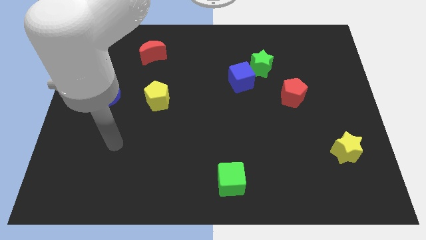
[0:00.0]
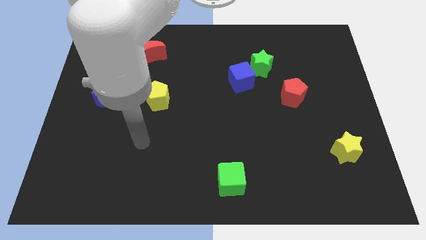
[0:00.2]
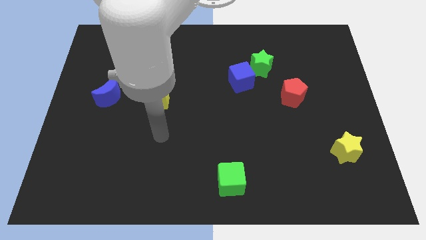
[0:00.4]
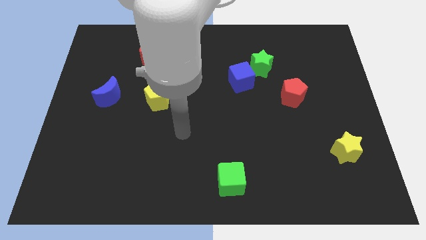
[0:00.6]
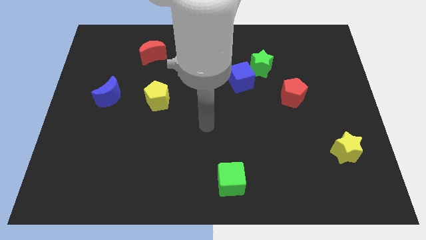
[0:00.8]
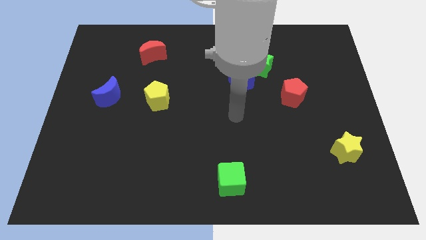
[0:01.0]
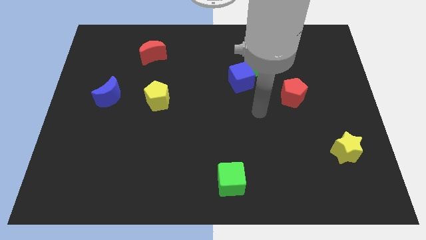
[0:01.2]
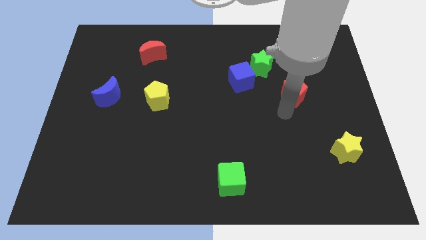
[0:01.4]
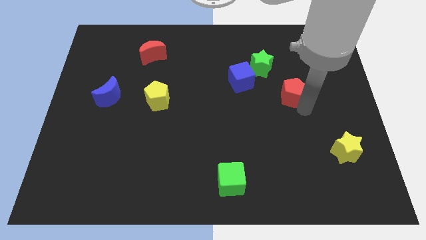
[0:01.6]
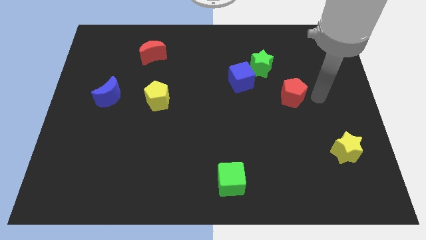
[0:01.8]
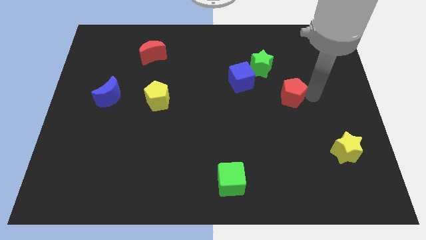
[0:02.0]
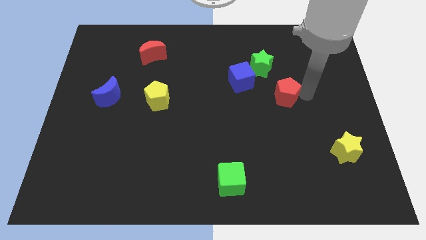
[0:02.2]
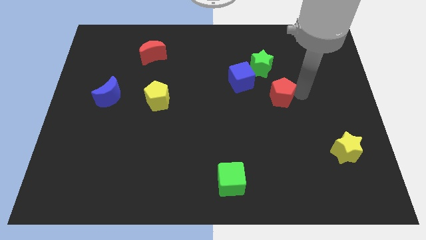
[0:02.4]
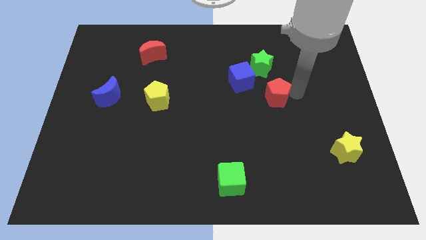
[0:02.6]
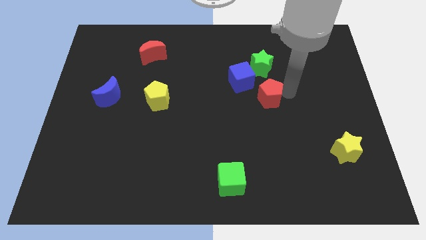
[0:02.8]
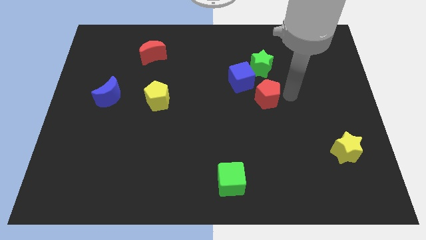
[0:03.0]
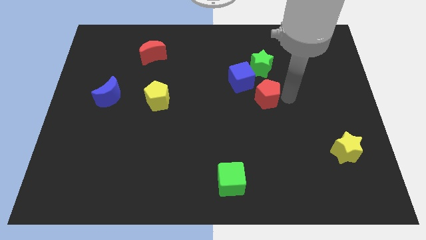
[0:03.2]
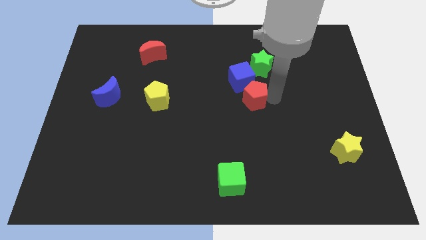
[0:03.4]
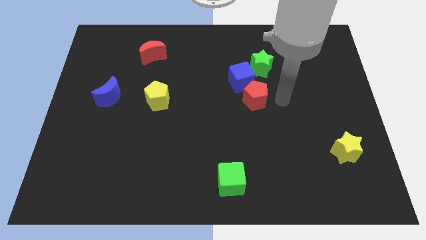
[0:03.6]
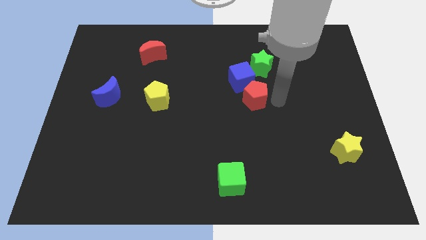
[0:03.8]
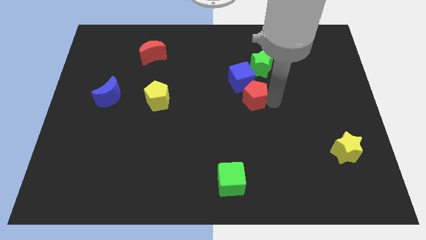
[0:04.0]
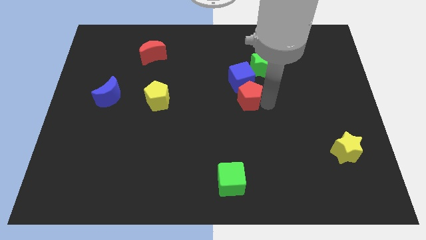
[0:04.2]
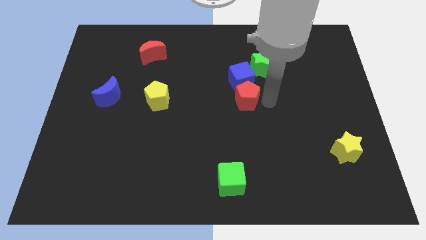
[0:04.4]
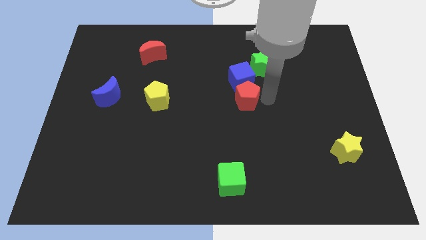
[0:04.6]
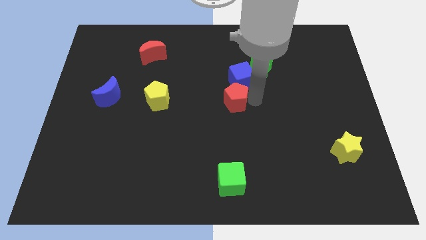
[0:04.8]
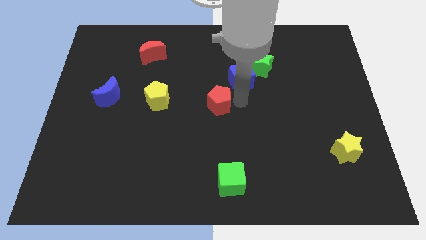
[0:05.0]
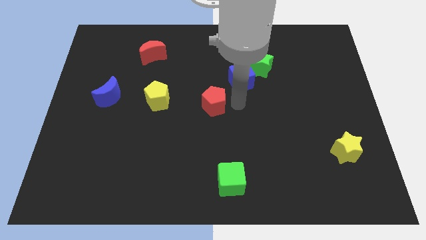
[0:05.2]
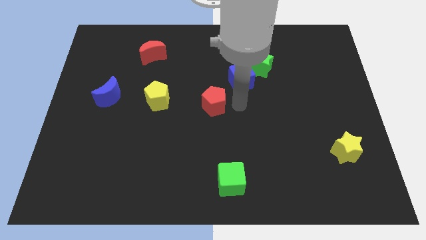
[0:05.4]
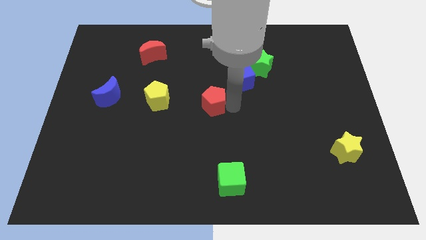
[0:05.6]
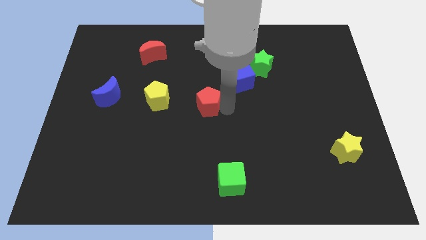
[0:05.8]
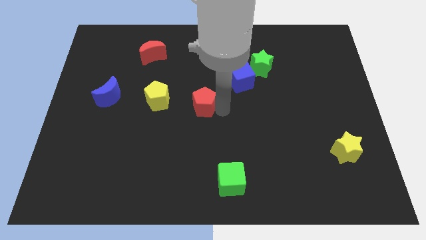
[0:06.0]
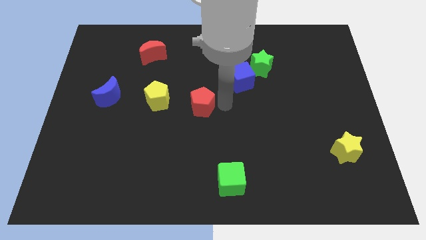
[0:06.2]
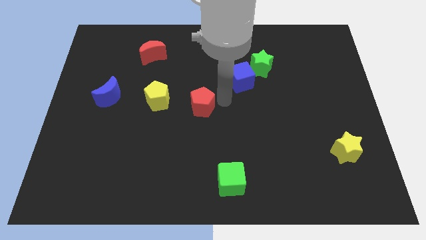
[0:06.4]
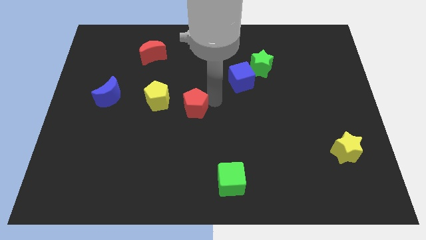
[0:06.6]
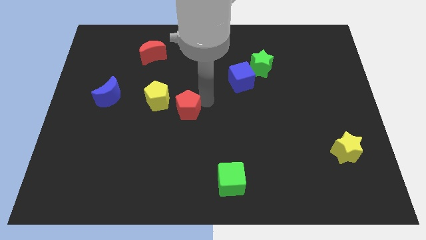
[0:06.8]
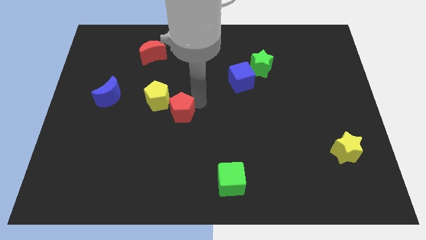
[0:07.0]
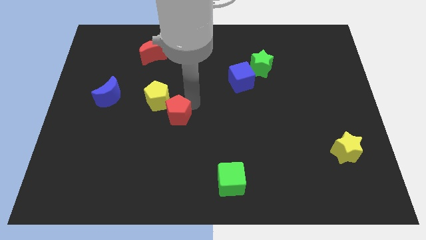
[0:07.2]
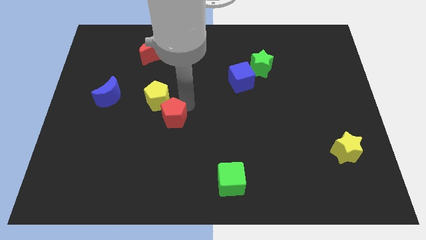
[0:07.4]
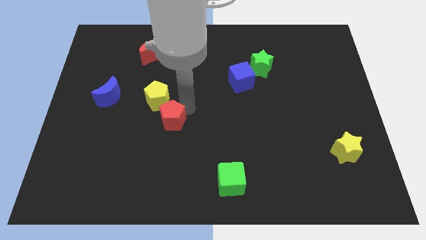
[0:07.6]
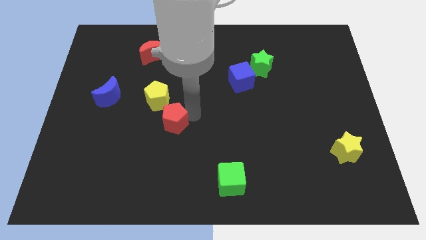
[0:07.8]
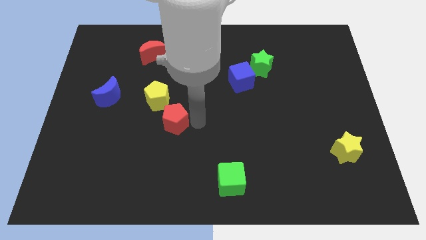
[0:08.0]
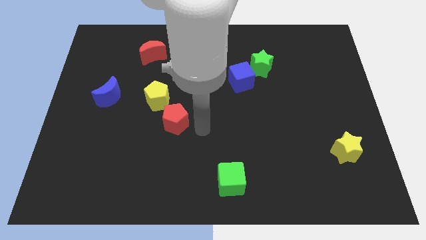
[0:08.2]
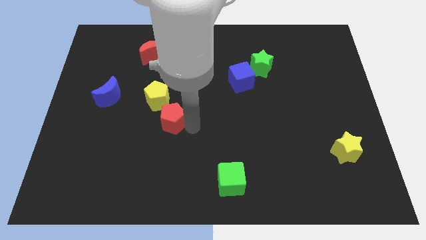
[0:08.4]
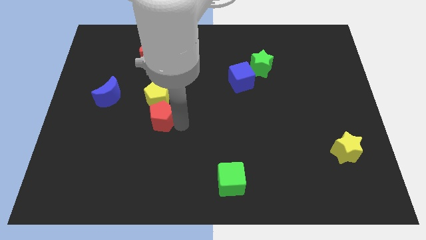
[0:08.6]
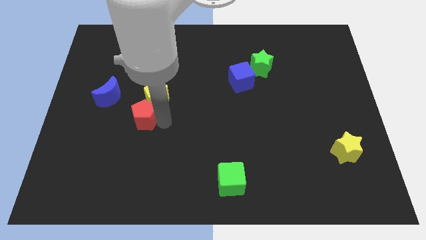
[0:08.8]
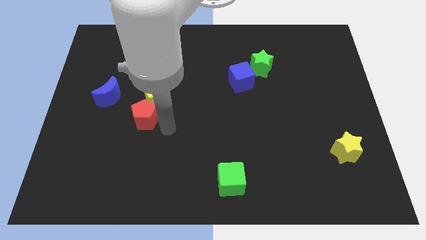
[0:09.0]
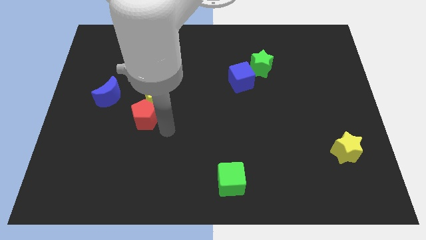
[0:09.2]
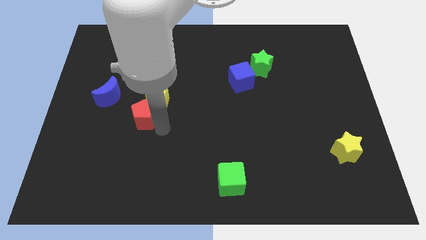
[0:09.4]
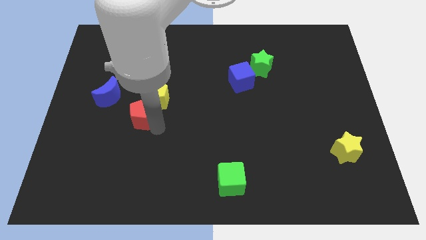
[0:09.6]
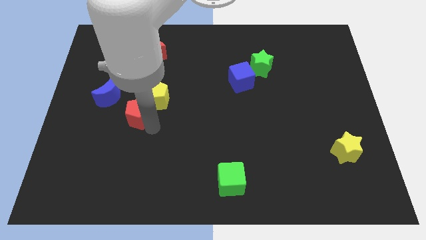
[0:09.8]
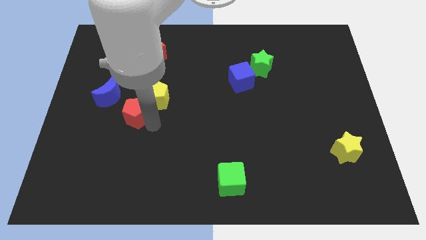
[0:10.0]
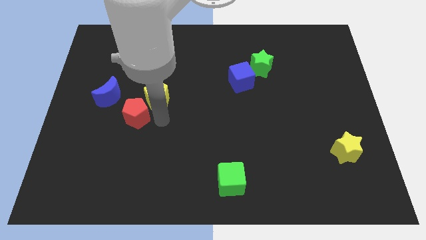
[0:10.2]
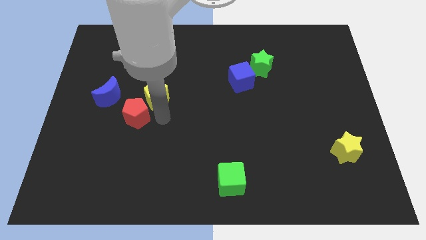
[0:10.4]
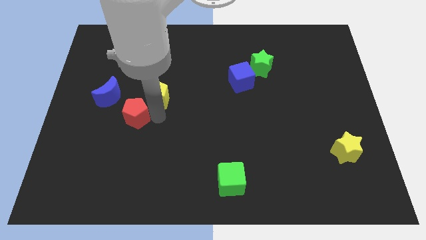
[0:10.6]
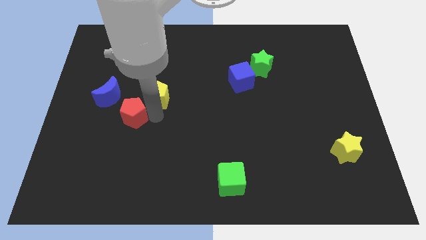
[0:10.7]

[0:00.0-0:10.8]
slide the red pentagon left of the yellow pentagon

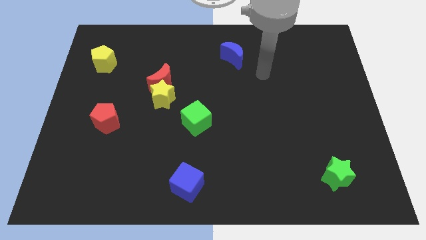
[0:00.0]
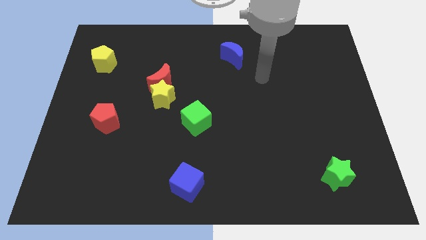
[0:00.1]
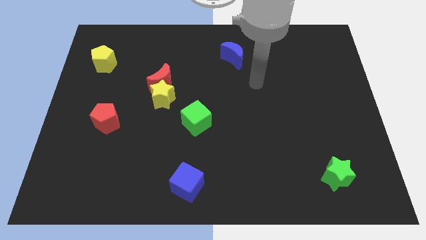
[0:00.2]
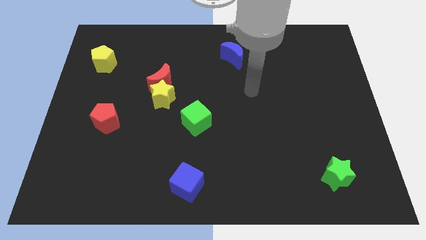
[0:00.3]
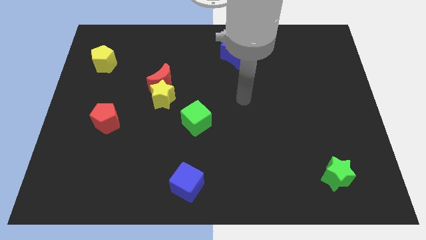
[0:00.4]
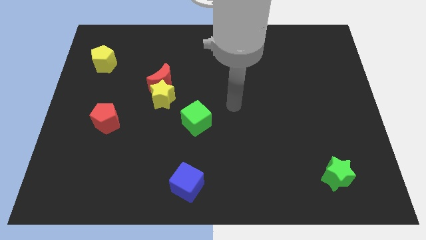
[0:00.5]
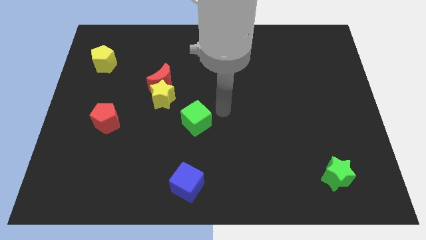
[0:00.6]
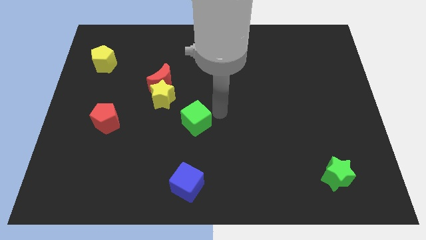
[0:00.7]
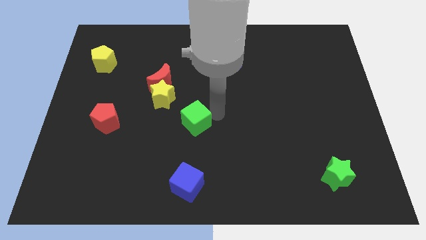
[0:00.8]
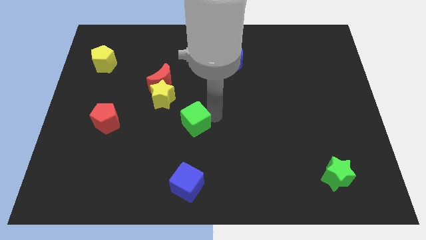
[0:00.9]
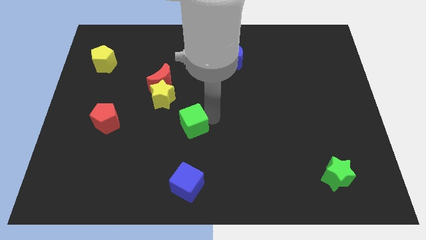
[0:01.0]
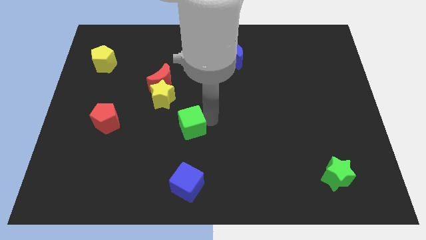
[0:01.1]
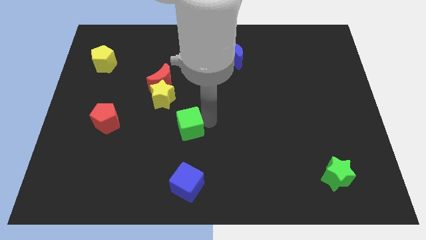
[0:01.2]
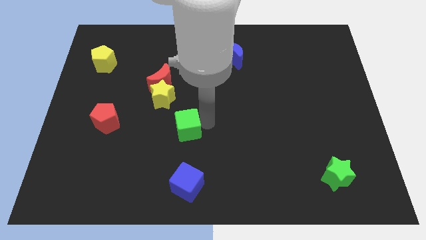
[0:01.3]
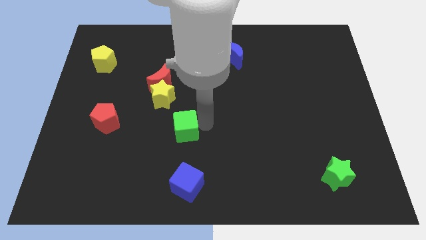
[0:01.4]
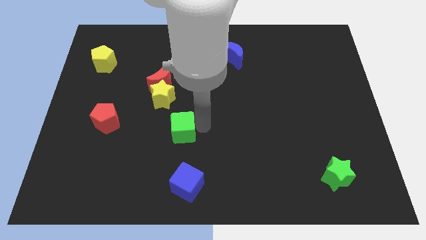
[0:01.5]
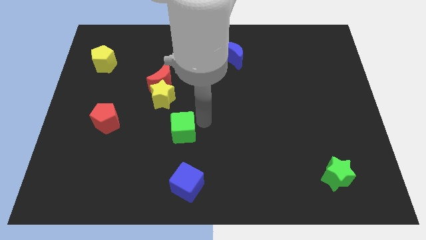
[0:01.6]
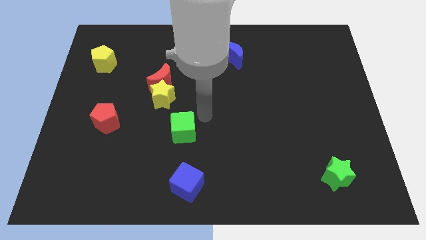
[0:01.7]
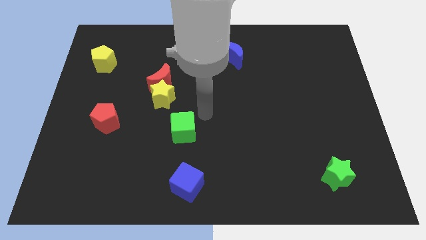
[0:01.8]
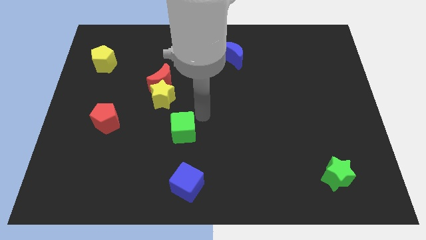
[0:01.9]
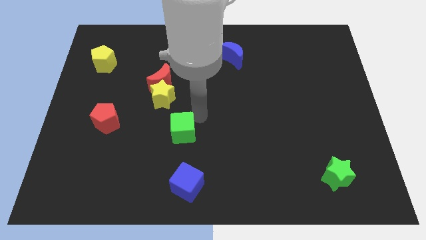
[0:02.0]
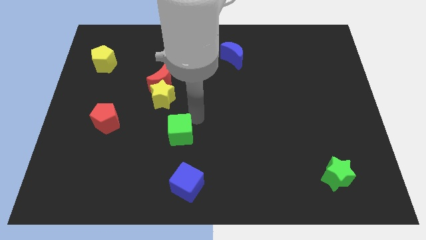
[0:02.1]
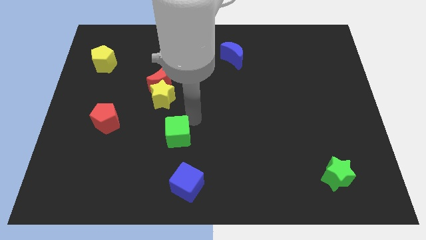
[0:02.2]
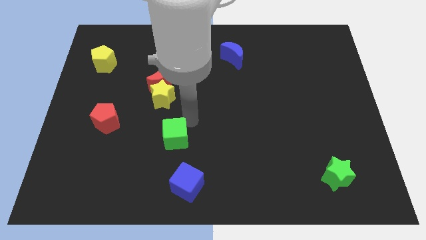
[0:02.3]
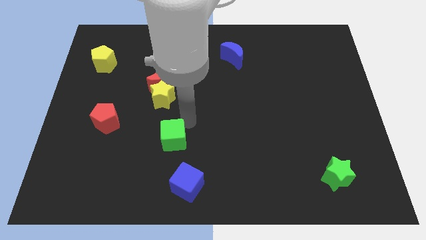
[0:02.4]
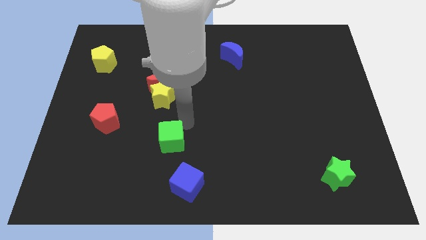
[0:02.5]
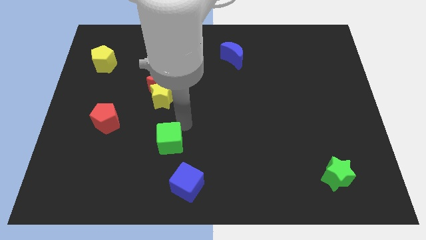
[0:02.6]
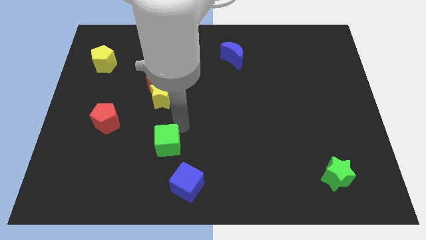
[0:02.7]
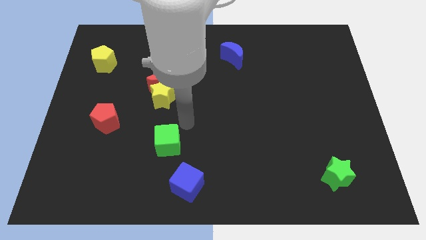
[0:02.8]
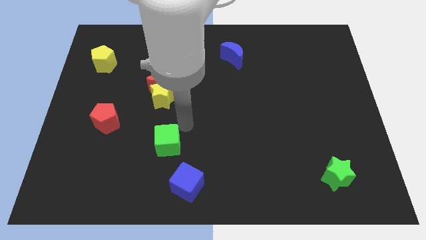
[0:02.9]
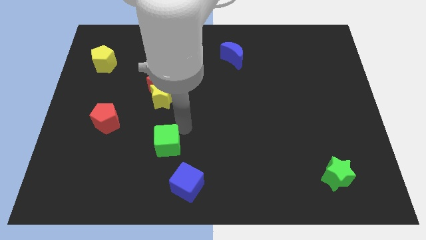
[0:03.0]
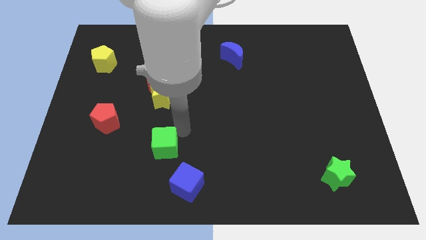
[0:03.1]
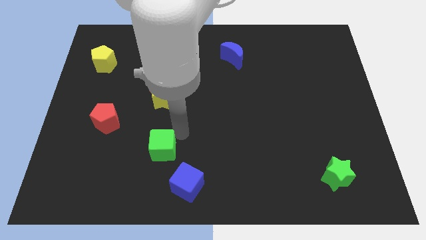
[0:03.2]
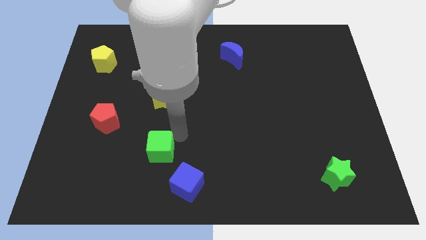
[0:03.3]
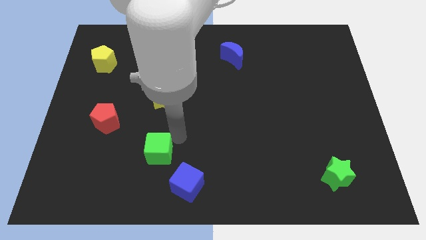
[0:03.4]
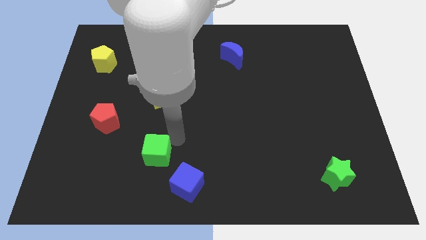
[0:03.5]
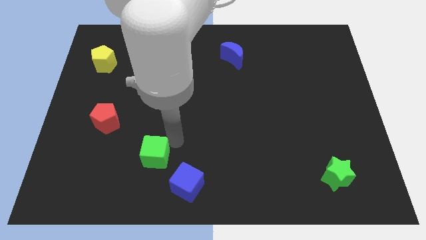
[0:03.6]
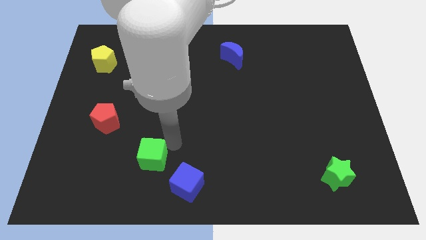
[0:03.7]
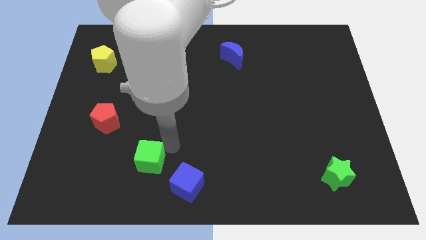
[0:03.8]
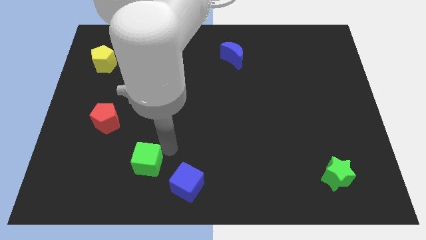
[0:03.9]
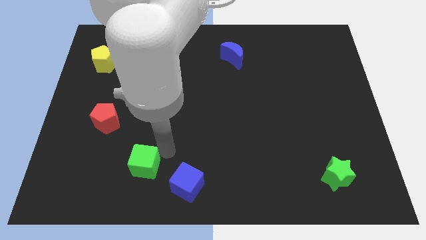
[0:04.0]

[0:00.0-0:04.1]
slide the green cube left of the blue cube
